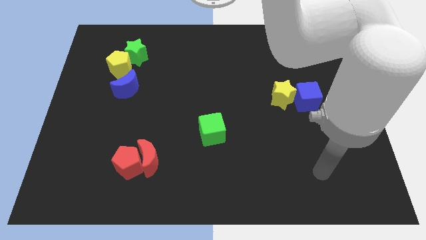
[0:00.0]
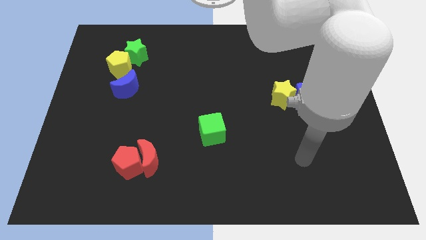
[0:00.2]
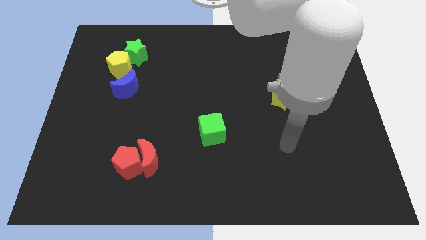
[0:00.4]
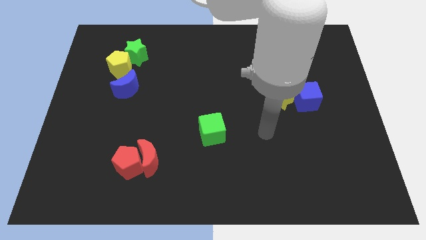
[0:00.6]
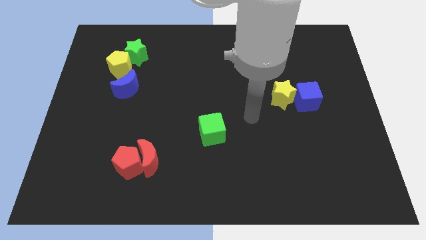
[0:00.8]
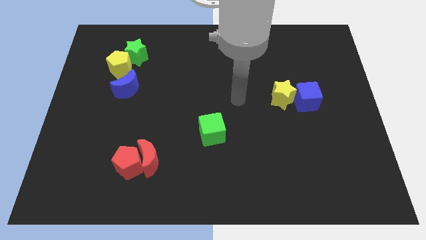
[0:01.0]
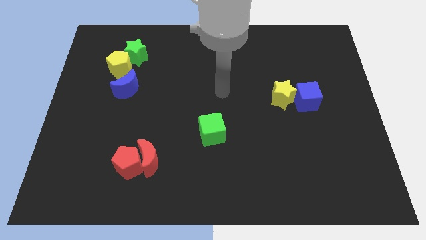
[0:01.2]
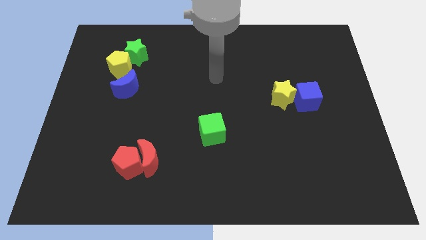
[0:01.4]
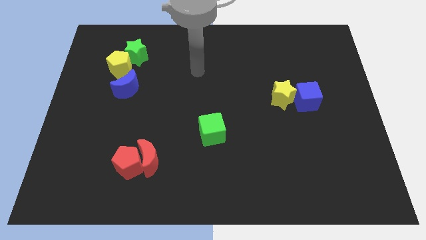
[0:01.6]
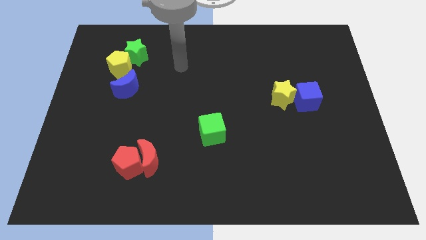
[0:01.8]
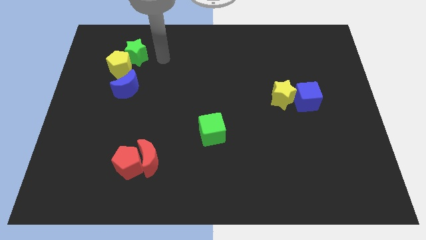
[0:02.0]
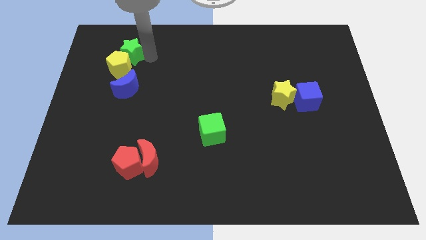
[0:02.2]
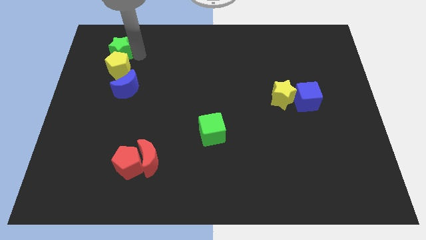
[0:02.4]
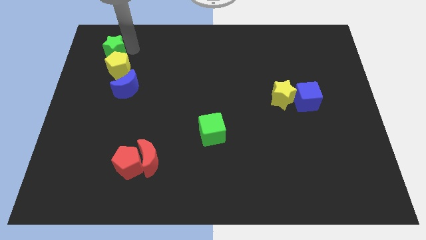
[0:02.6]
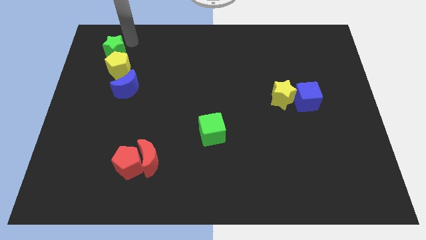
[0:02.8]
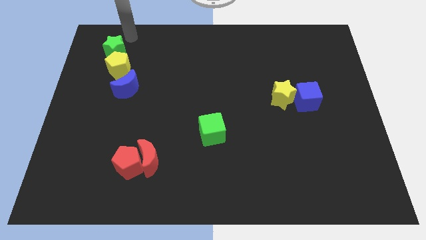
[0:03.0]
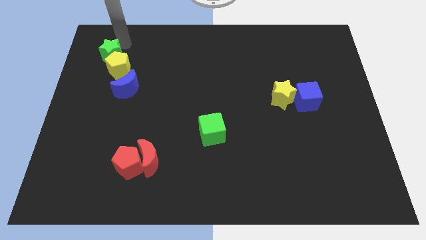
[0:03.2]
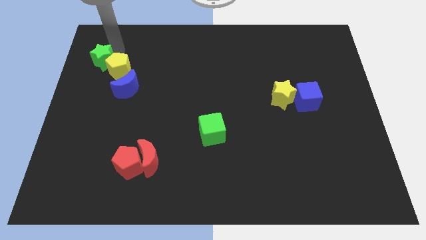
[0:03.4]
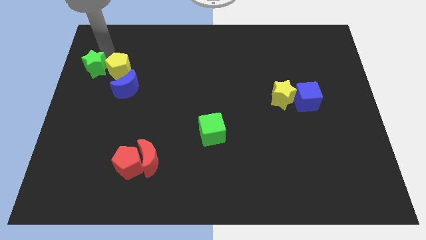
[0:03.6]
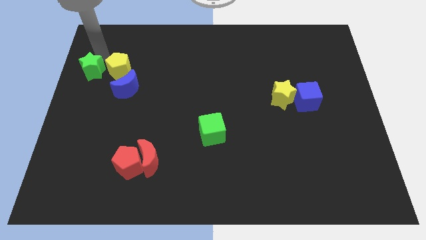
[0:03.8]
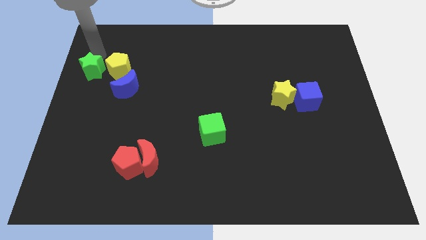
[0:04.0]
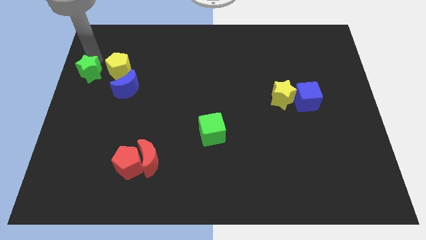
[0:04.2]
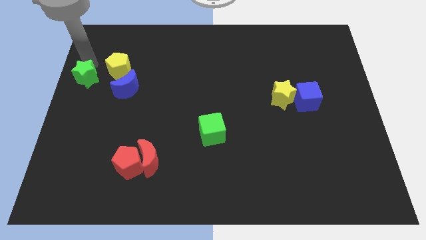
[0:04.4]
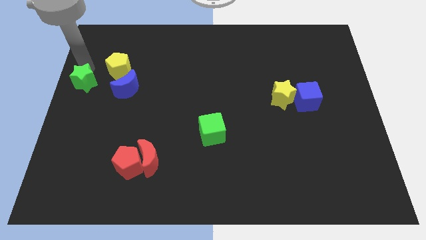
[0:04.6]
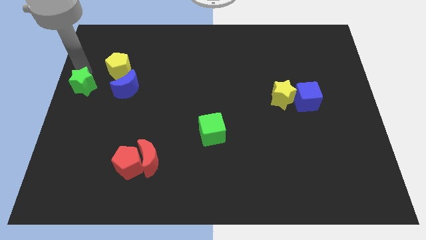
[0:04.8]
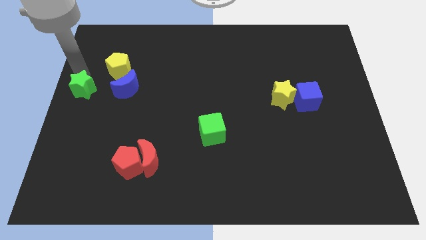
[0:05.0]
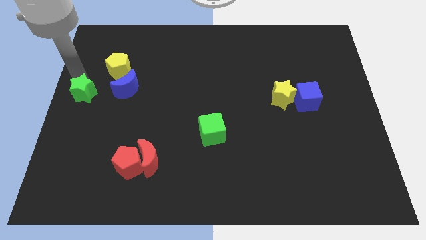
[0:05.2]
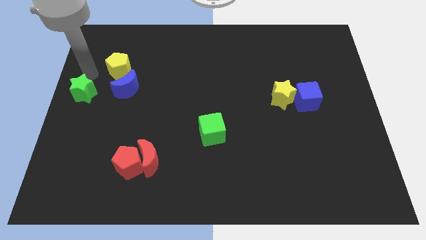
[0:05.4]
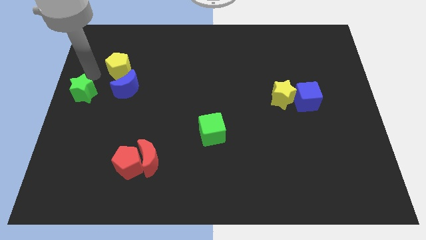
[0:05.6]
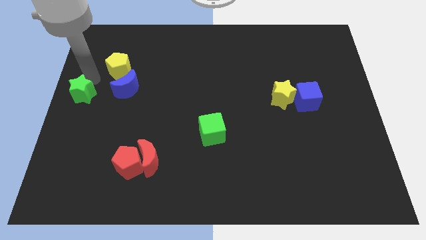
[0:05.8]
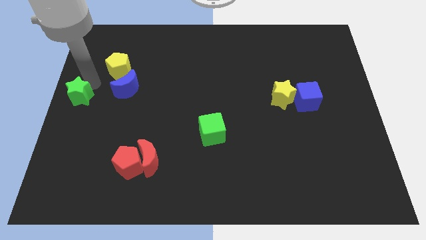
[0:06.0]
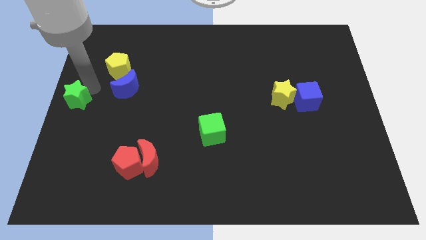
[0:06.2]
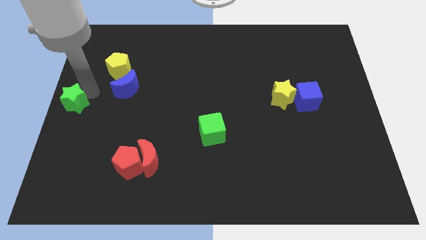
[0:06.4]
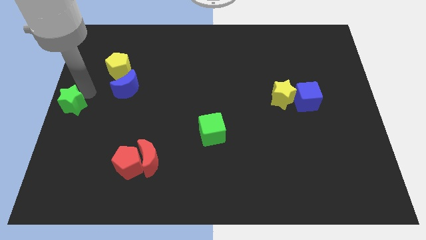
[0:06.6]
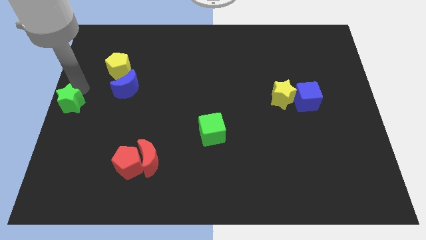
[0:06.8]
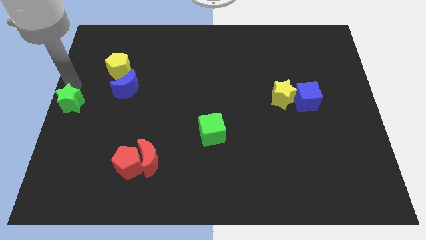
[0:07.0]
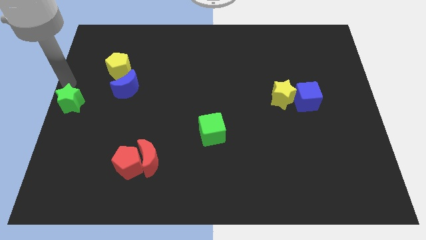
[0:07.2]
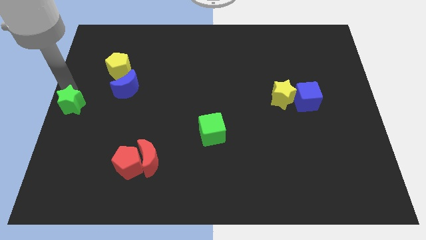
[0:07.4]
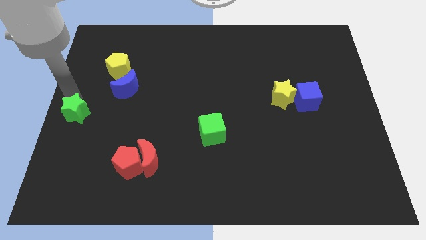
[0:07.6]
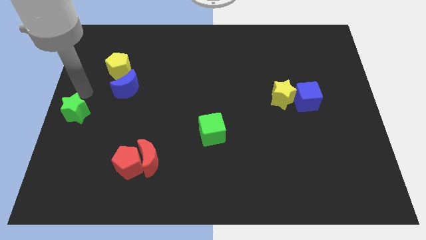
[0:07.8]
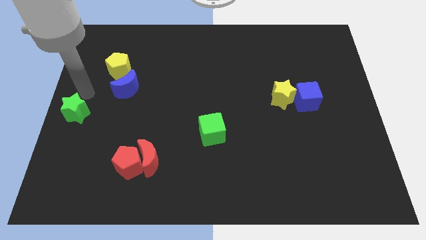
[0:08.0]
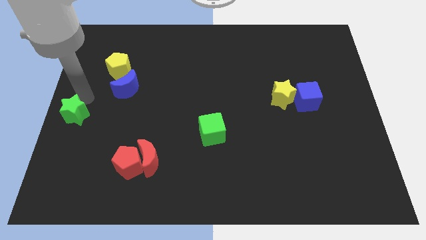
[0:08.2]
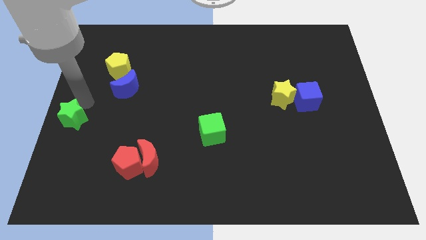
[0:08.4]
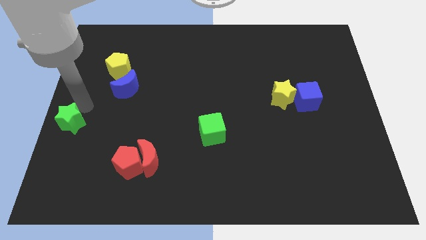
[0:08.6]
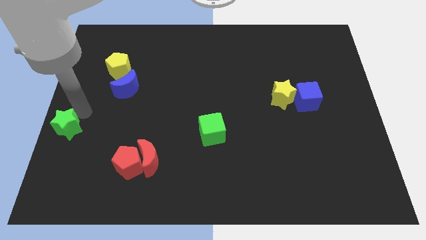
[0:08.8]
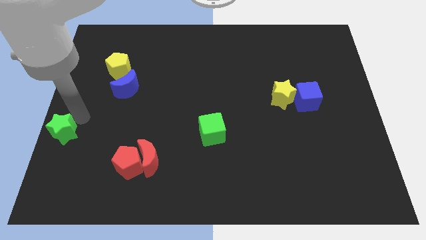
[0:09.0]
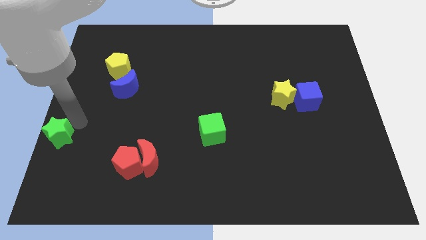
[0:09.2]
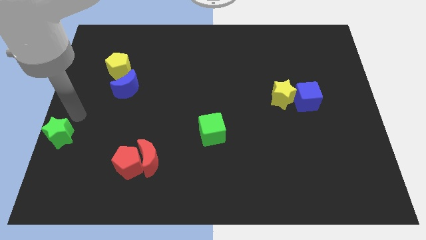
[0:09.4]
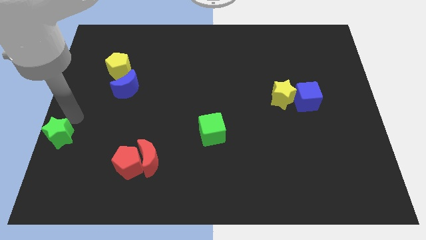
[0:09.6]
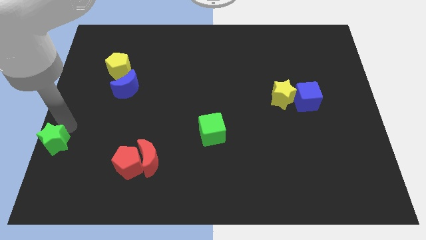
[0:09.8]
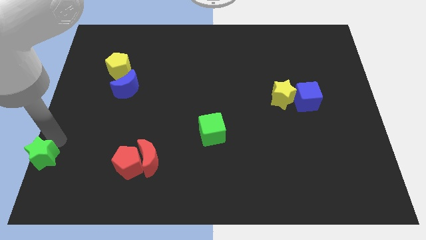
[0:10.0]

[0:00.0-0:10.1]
put the green star to the bottom left corner

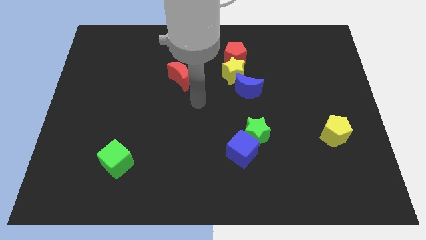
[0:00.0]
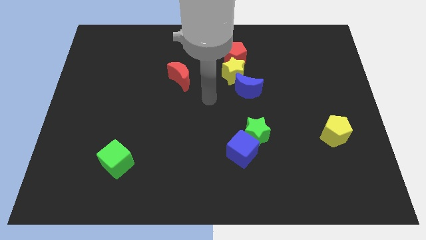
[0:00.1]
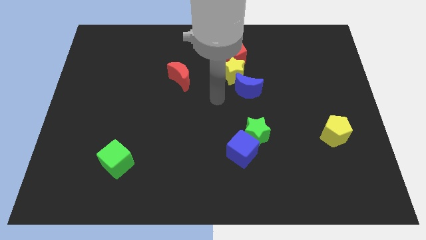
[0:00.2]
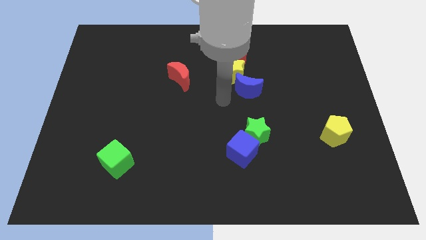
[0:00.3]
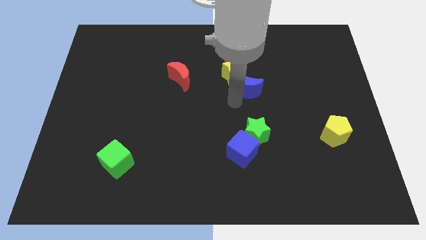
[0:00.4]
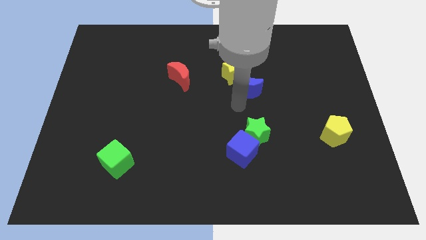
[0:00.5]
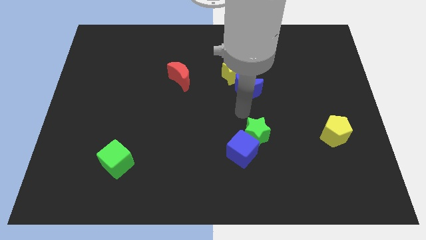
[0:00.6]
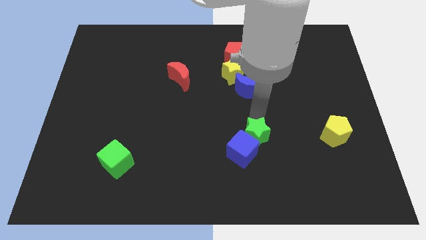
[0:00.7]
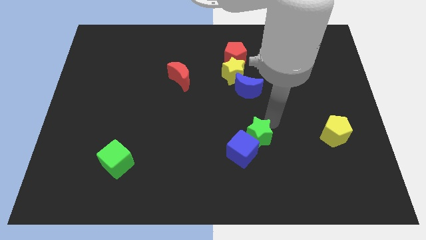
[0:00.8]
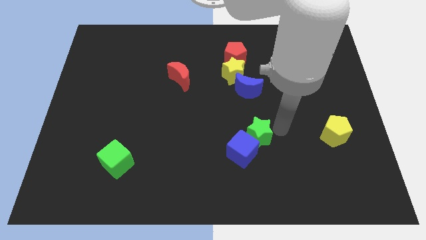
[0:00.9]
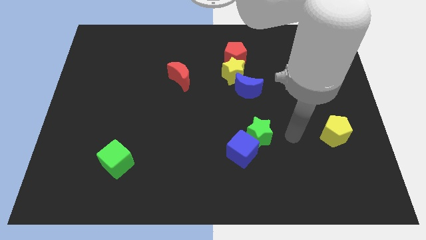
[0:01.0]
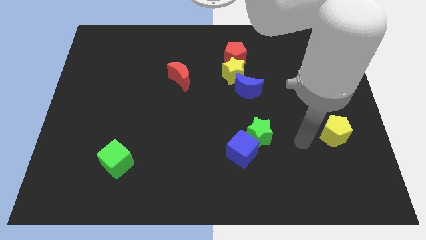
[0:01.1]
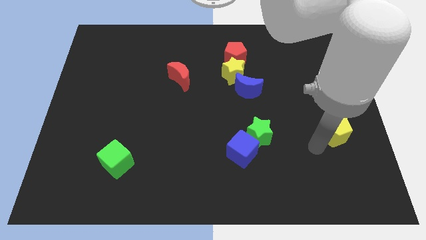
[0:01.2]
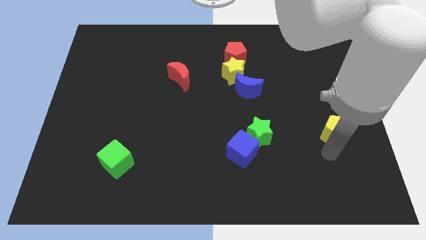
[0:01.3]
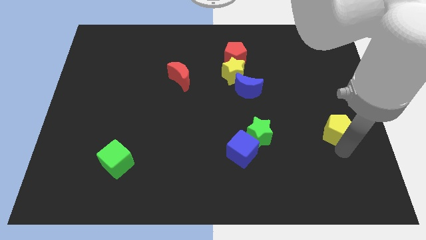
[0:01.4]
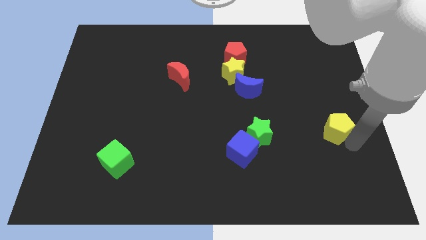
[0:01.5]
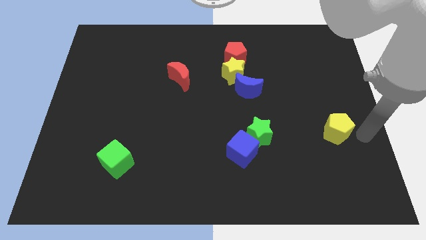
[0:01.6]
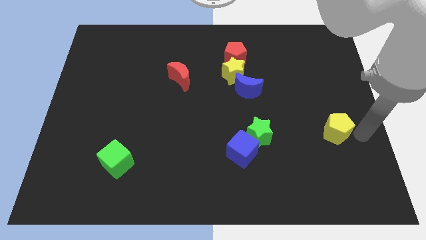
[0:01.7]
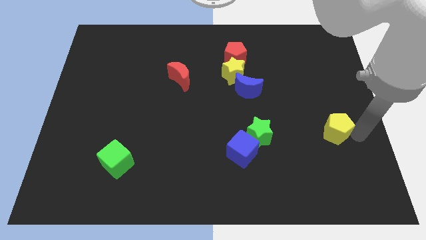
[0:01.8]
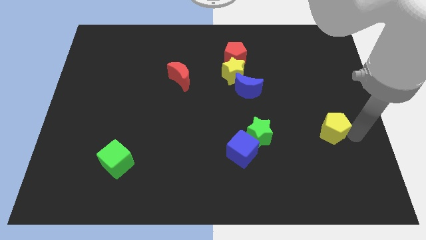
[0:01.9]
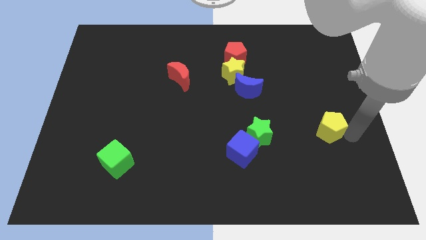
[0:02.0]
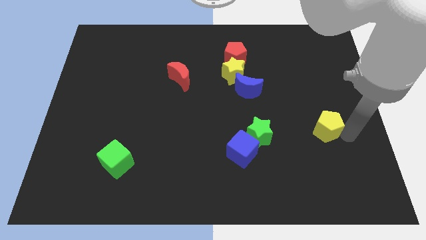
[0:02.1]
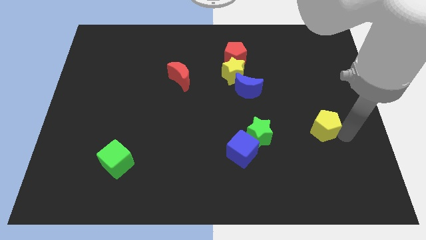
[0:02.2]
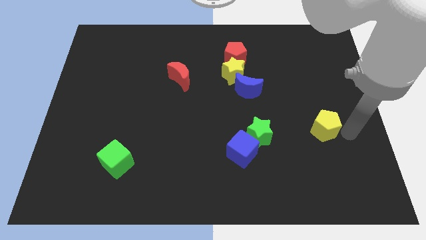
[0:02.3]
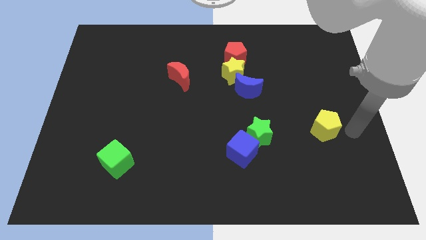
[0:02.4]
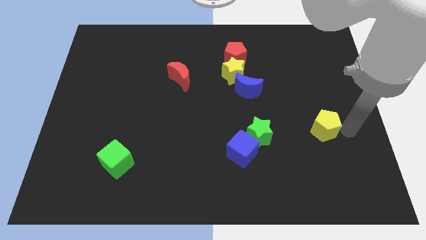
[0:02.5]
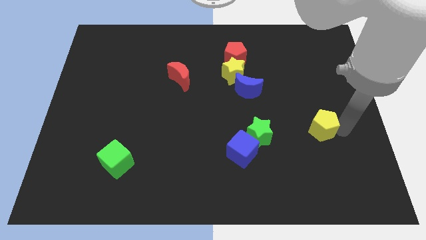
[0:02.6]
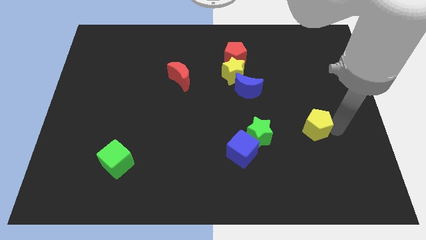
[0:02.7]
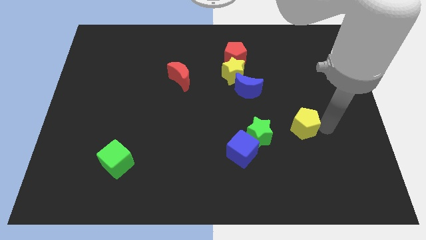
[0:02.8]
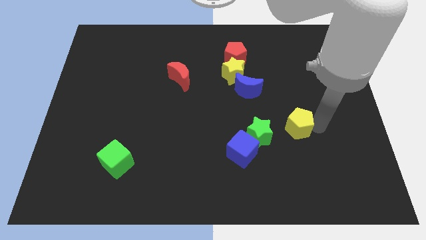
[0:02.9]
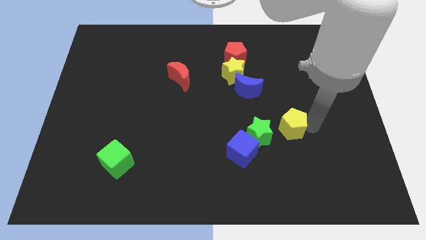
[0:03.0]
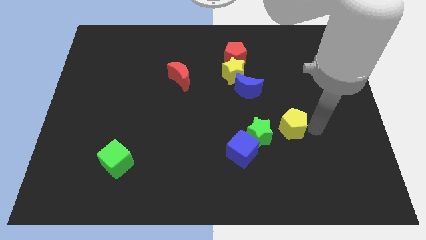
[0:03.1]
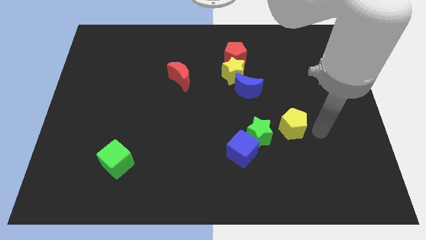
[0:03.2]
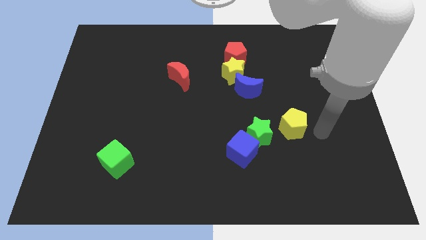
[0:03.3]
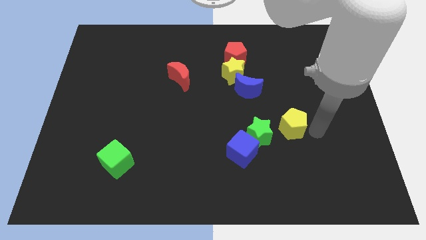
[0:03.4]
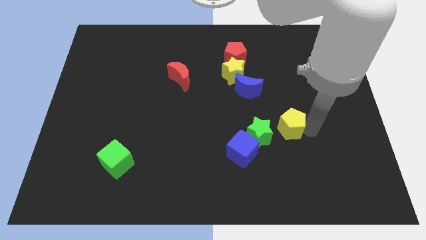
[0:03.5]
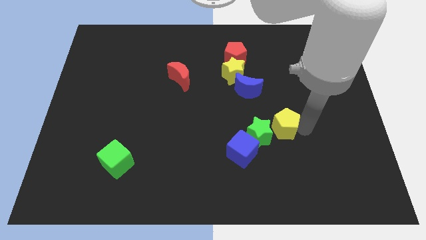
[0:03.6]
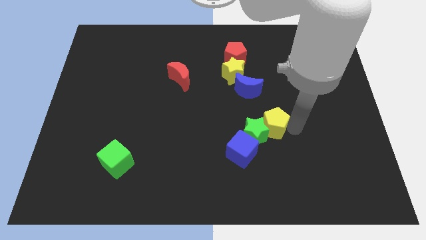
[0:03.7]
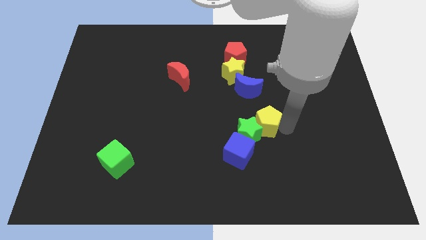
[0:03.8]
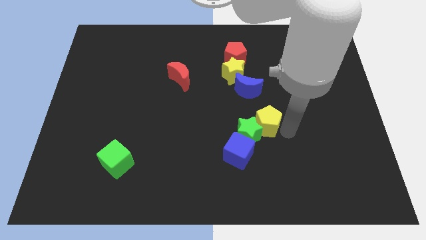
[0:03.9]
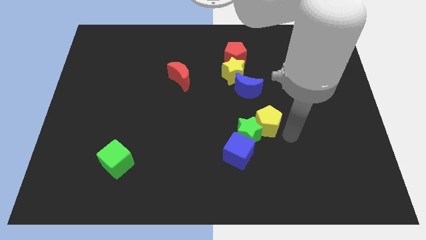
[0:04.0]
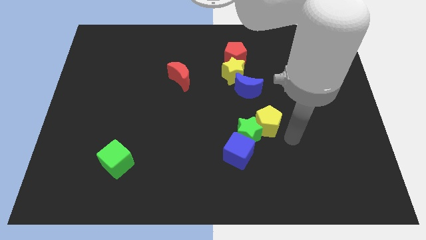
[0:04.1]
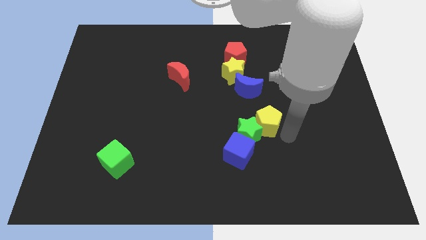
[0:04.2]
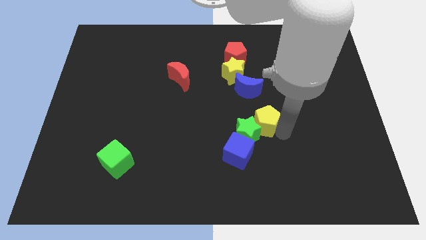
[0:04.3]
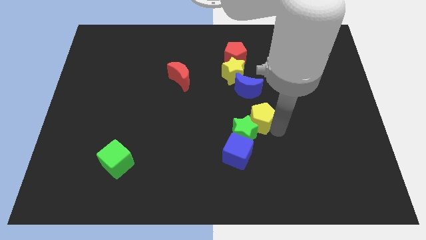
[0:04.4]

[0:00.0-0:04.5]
put the yellow pentagon to the center
